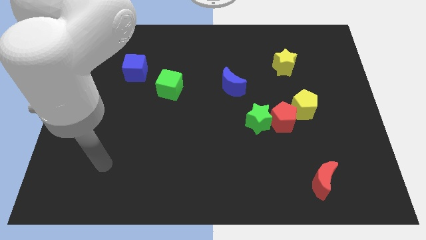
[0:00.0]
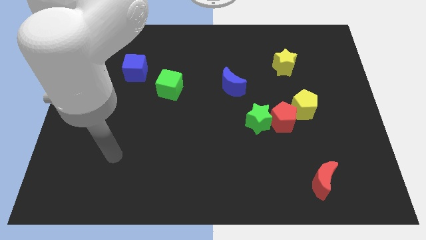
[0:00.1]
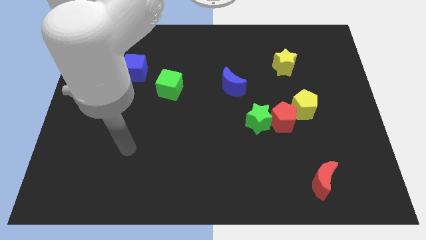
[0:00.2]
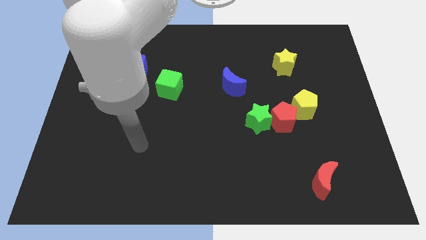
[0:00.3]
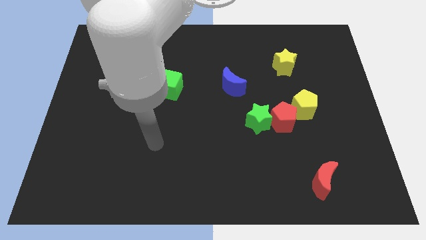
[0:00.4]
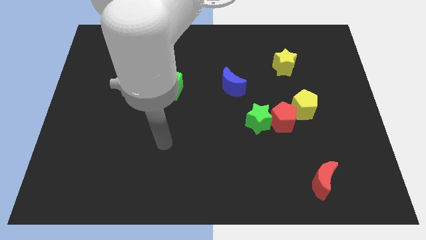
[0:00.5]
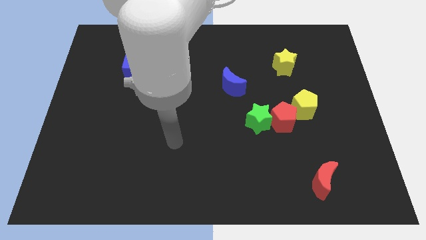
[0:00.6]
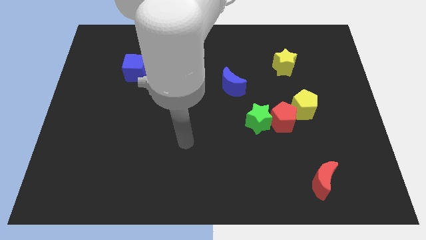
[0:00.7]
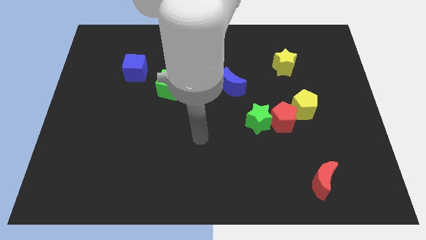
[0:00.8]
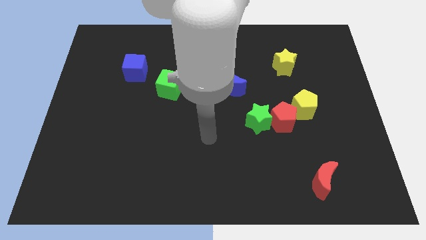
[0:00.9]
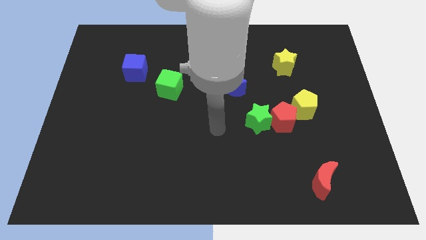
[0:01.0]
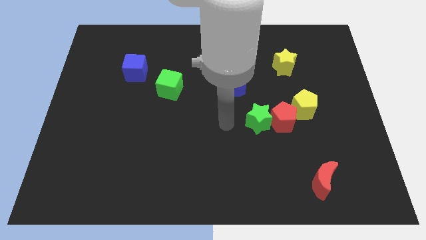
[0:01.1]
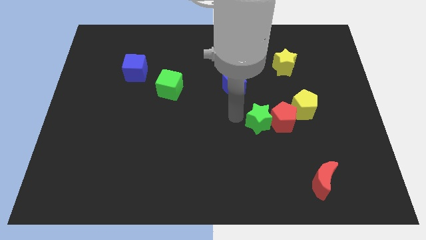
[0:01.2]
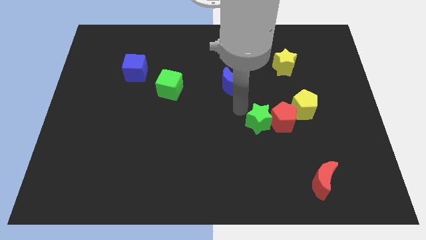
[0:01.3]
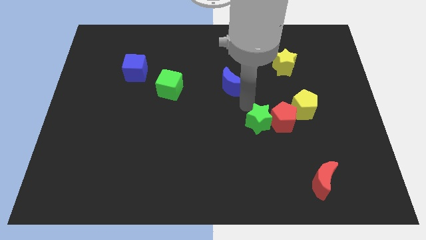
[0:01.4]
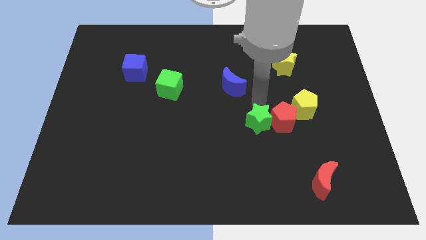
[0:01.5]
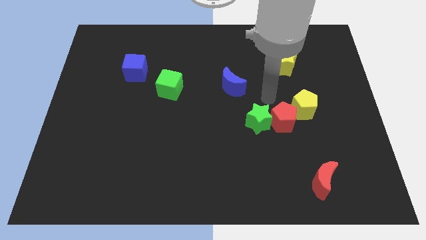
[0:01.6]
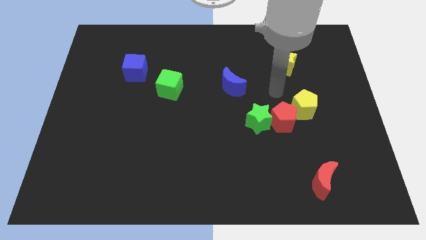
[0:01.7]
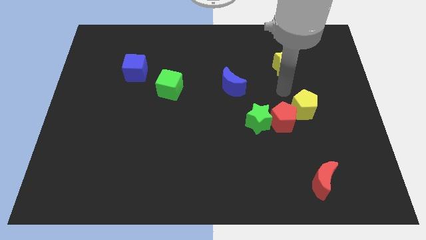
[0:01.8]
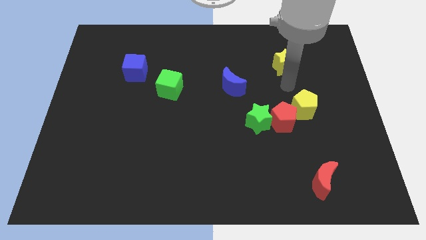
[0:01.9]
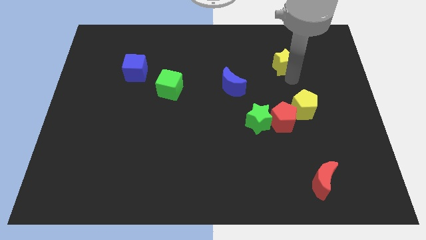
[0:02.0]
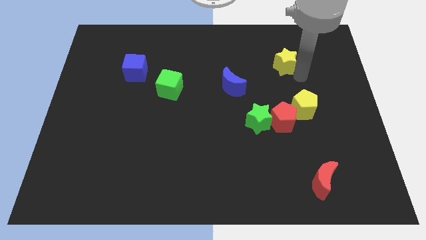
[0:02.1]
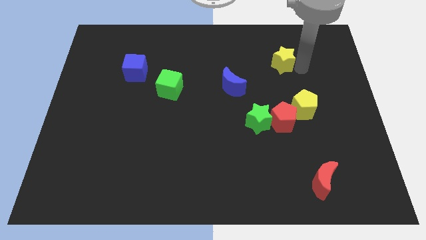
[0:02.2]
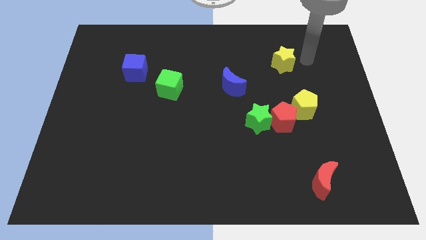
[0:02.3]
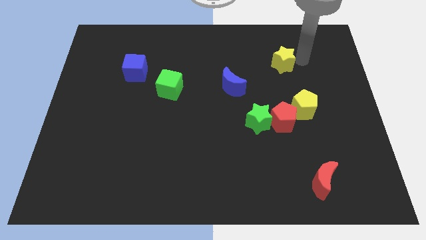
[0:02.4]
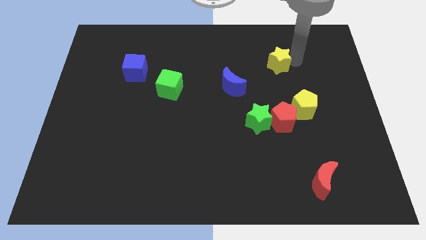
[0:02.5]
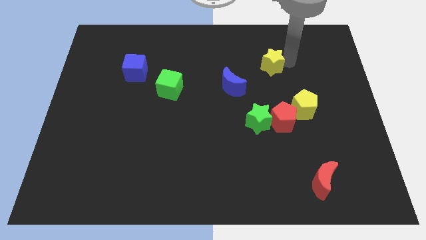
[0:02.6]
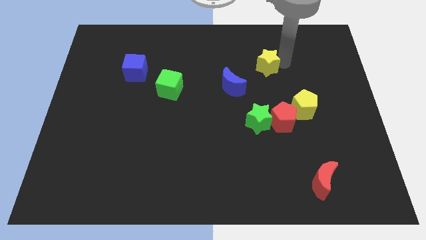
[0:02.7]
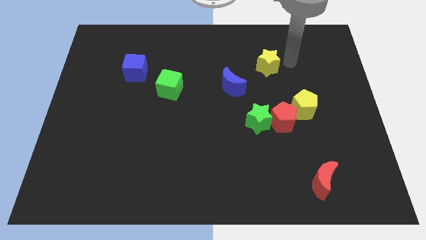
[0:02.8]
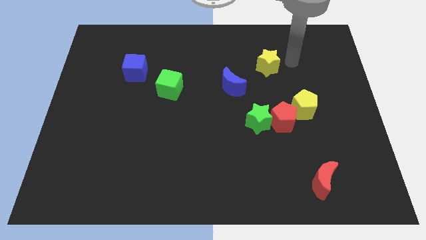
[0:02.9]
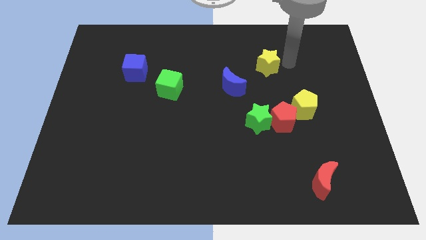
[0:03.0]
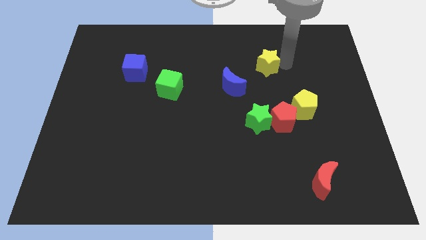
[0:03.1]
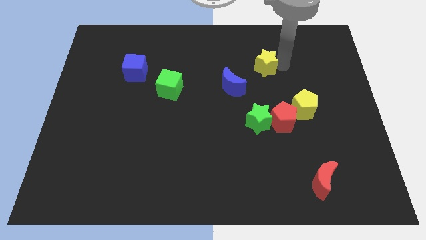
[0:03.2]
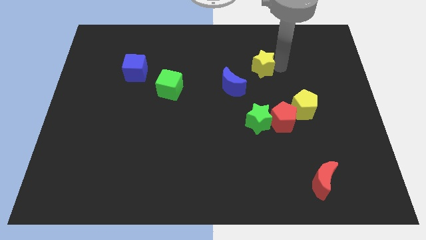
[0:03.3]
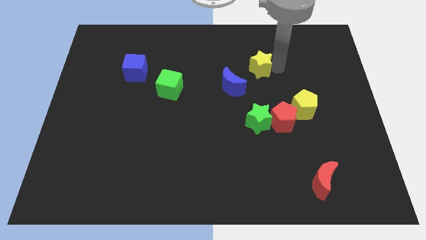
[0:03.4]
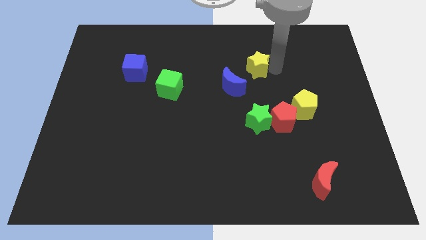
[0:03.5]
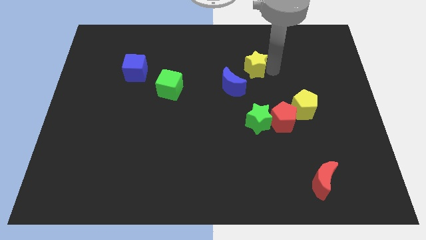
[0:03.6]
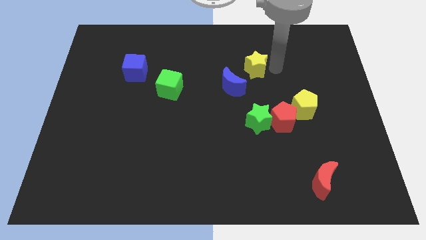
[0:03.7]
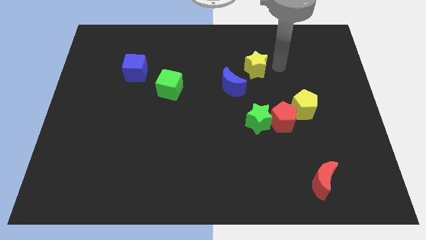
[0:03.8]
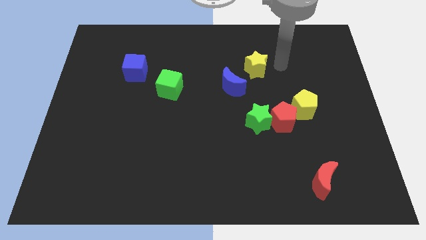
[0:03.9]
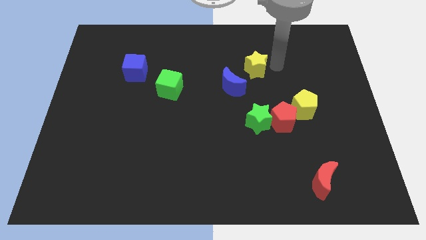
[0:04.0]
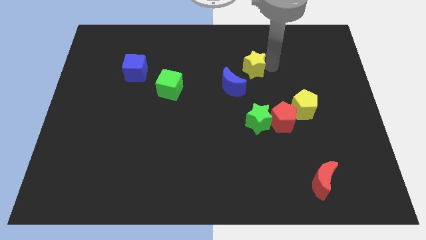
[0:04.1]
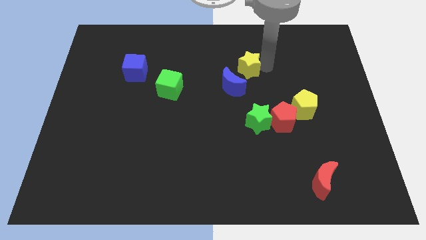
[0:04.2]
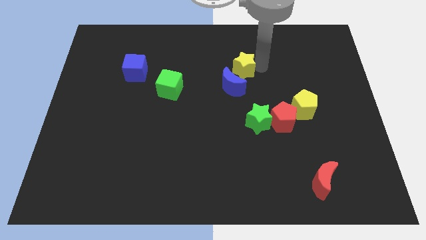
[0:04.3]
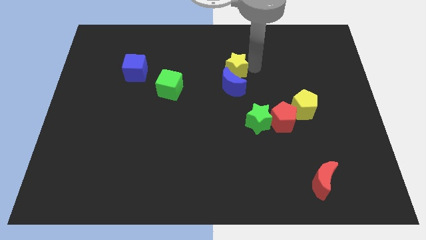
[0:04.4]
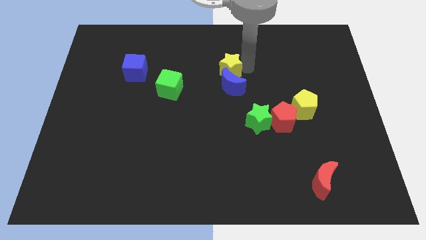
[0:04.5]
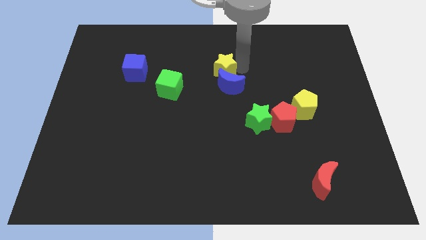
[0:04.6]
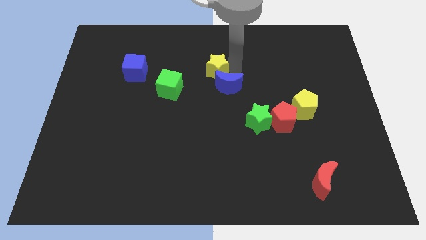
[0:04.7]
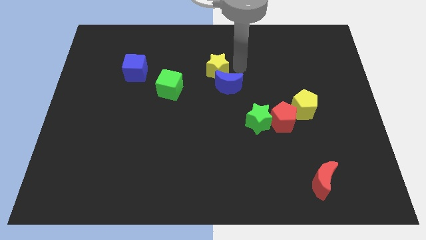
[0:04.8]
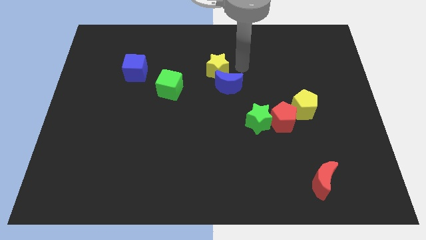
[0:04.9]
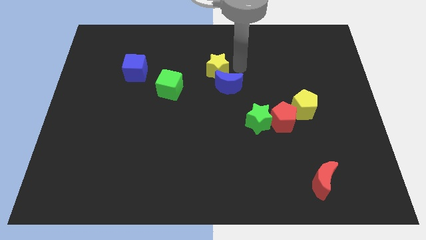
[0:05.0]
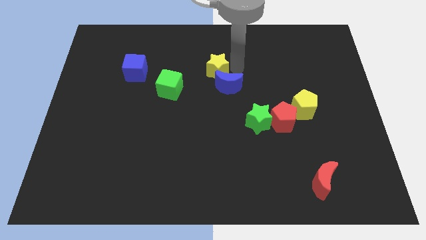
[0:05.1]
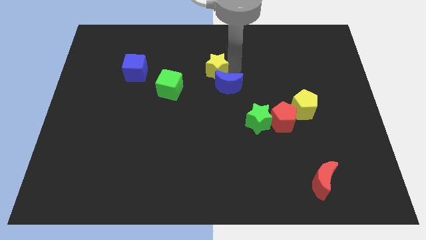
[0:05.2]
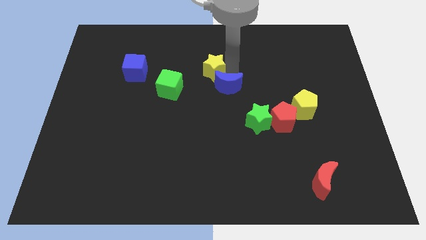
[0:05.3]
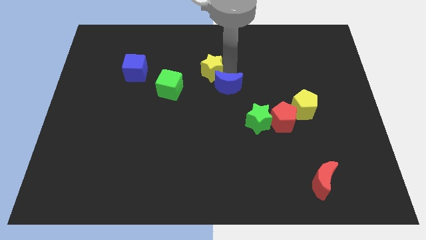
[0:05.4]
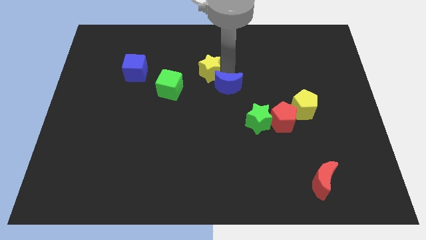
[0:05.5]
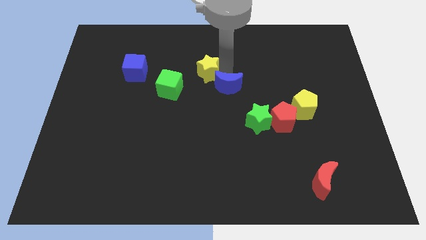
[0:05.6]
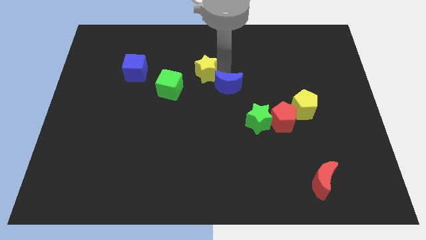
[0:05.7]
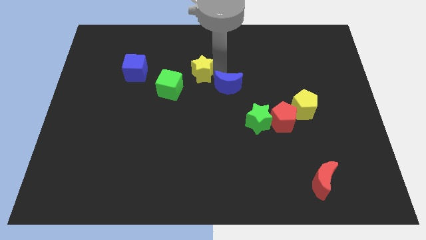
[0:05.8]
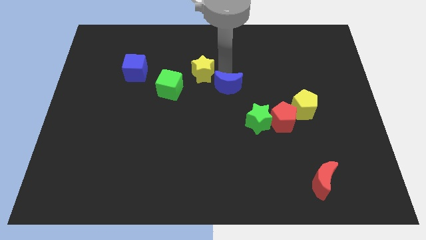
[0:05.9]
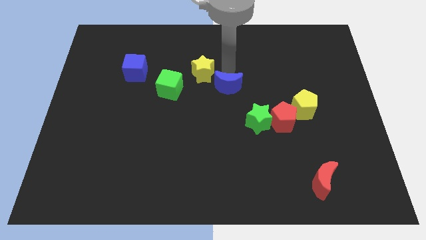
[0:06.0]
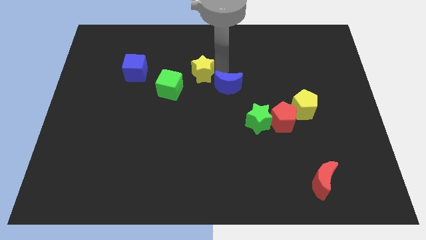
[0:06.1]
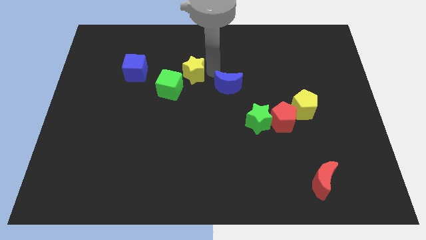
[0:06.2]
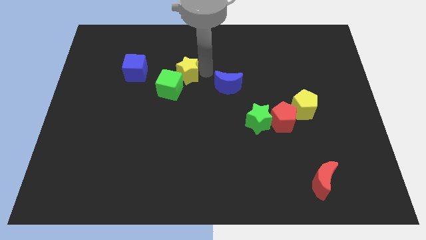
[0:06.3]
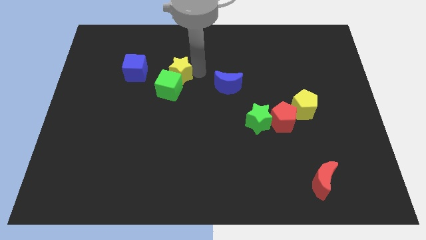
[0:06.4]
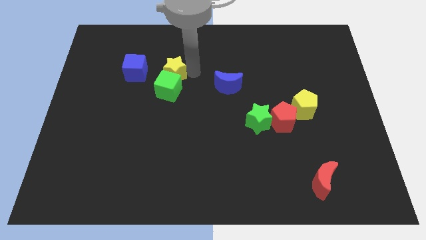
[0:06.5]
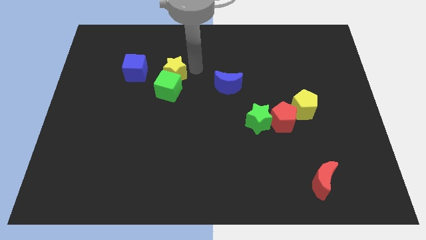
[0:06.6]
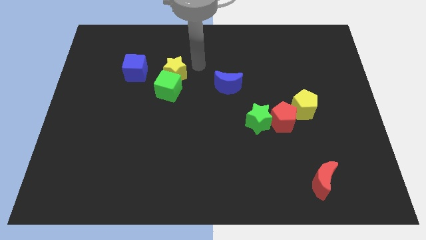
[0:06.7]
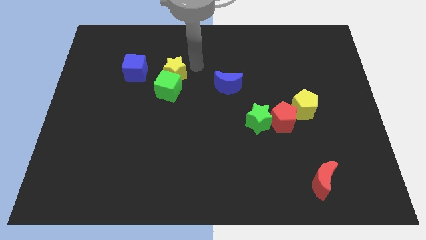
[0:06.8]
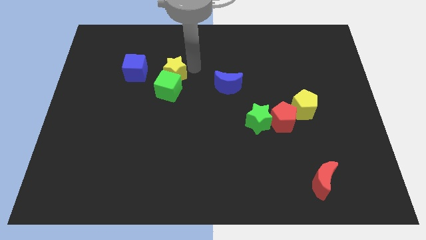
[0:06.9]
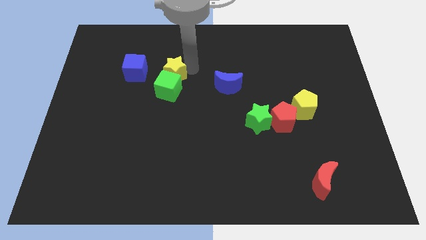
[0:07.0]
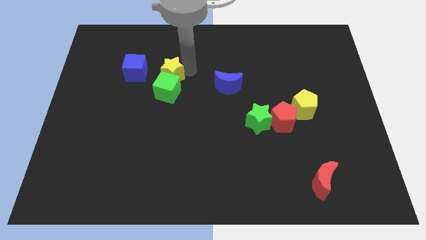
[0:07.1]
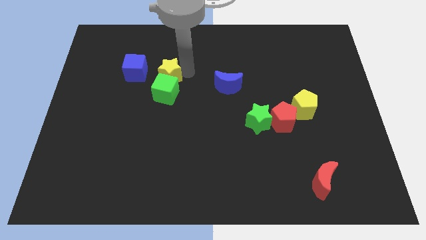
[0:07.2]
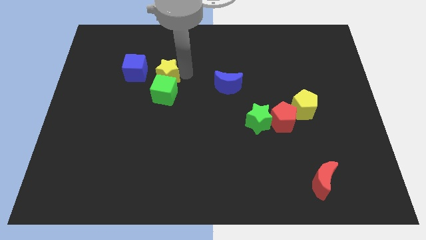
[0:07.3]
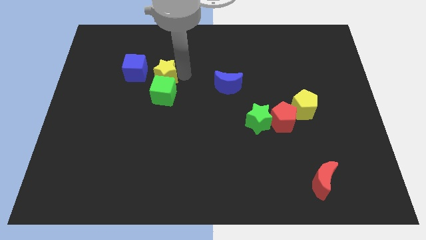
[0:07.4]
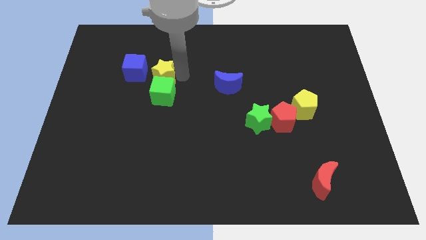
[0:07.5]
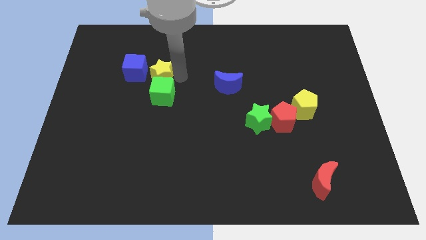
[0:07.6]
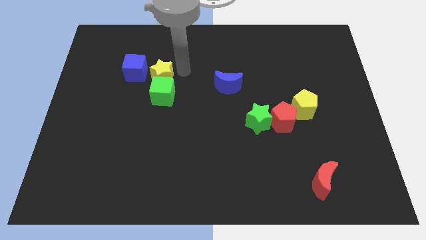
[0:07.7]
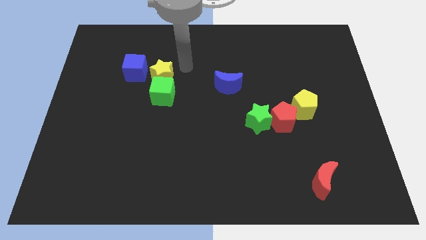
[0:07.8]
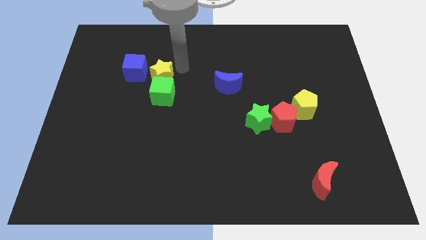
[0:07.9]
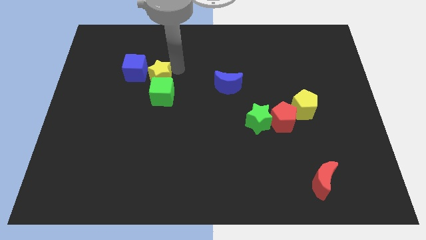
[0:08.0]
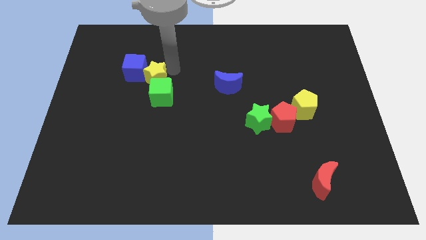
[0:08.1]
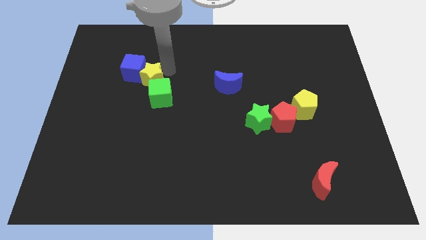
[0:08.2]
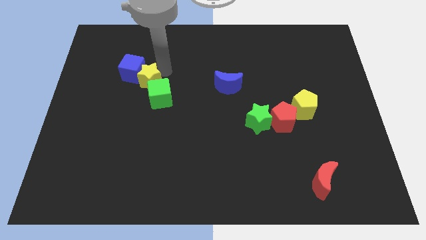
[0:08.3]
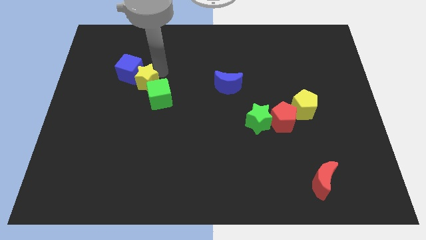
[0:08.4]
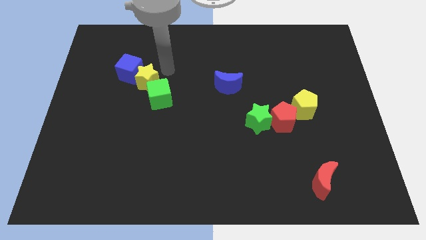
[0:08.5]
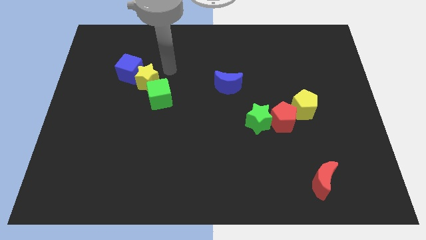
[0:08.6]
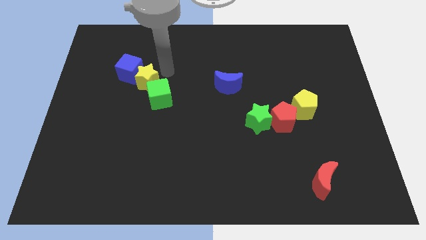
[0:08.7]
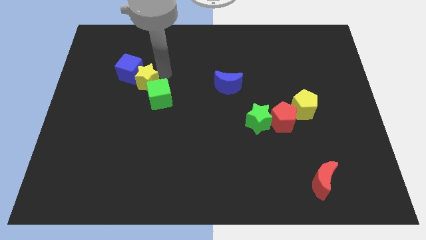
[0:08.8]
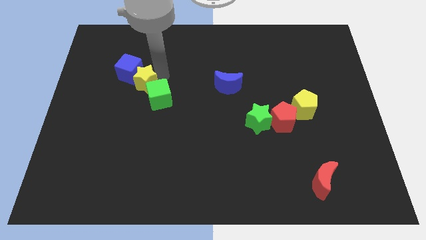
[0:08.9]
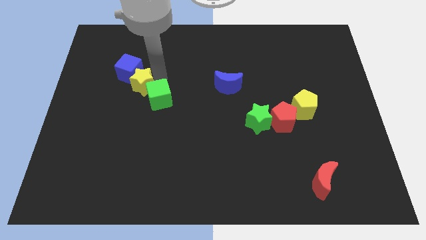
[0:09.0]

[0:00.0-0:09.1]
move the yellow star left of the green cube
